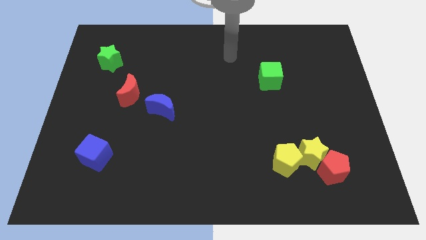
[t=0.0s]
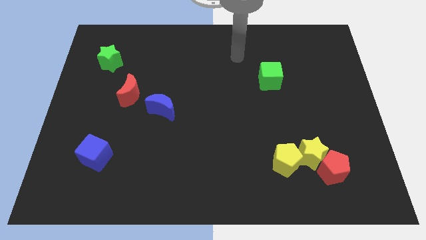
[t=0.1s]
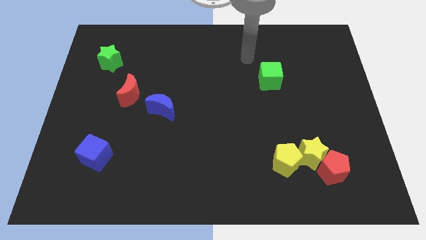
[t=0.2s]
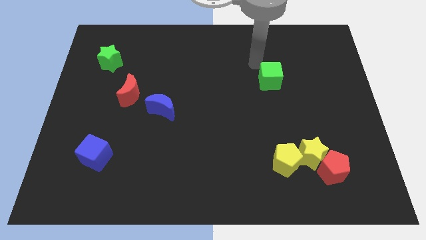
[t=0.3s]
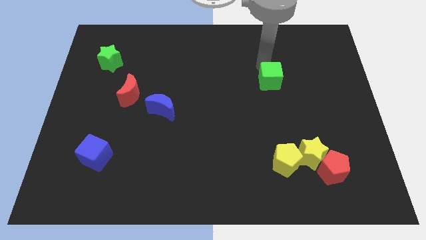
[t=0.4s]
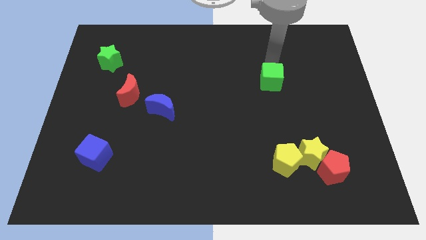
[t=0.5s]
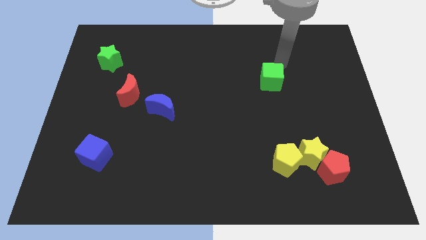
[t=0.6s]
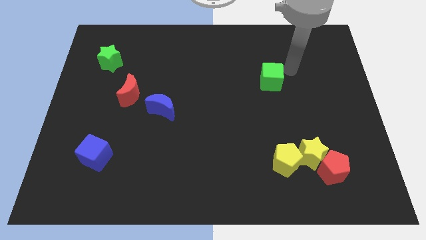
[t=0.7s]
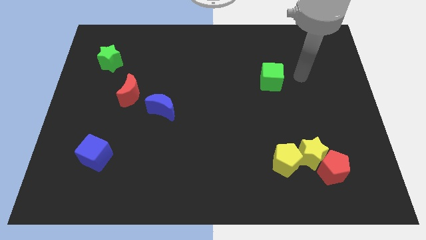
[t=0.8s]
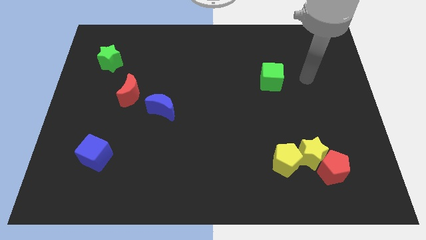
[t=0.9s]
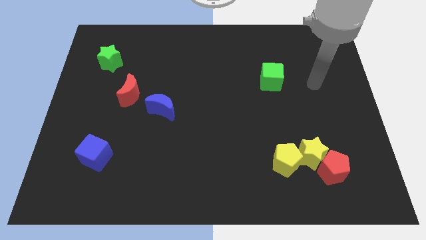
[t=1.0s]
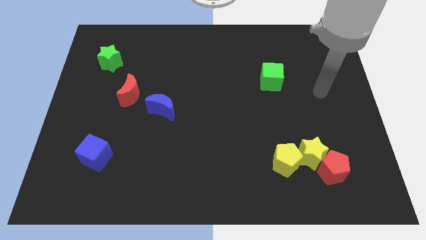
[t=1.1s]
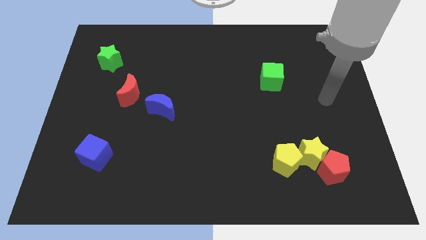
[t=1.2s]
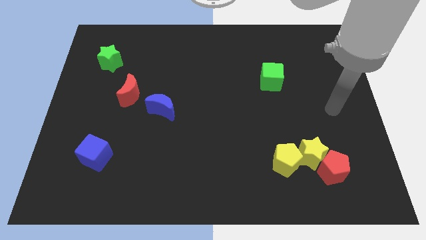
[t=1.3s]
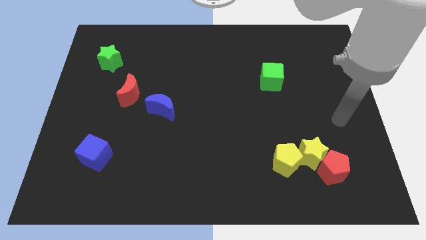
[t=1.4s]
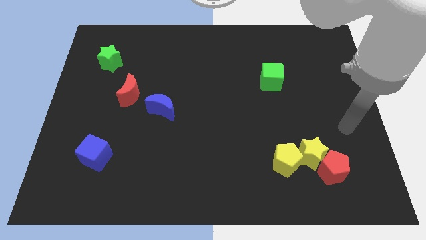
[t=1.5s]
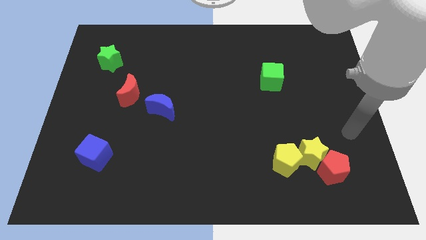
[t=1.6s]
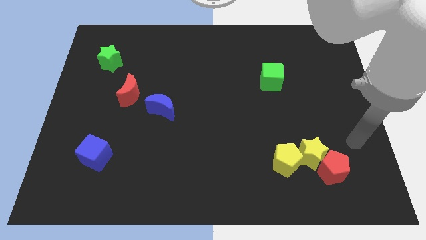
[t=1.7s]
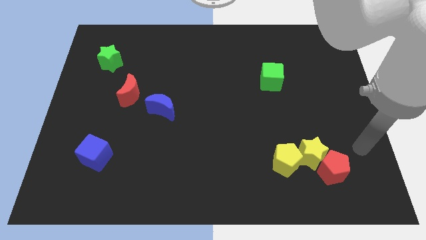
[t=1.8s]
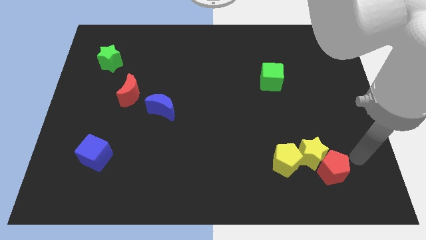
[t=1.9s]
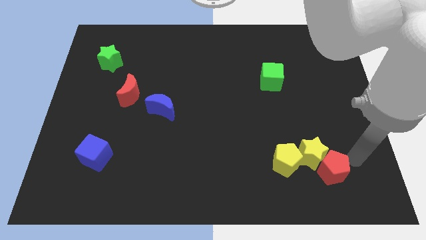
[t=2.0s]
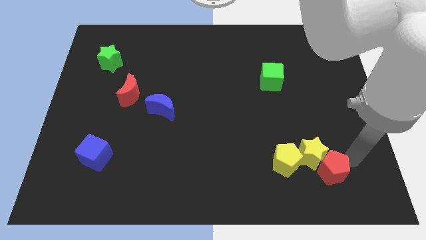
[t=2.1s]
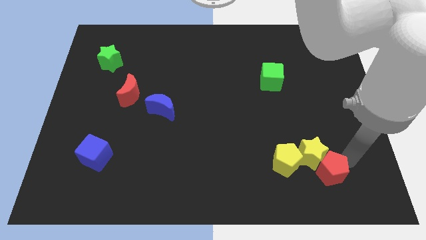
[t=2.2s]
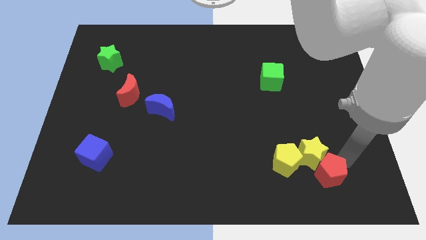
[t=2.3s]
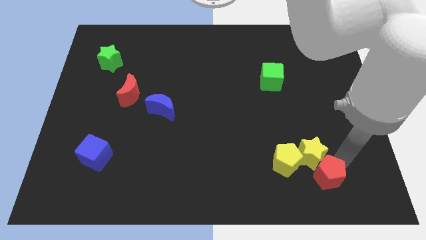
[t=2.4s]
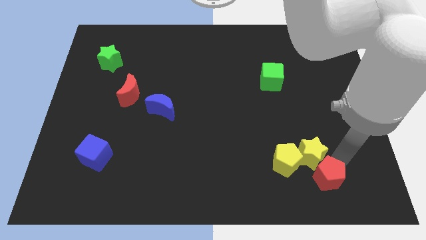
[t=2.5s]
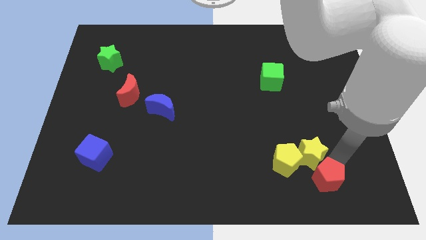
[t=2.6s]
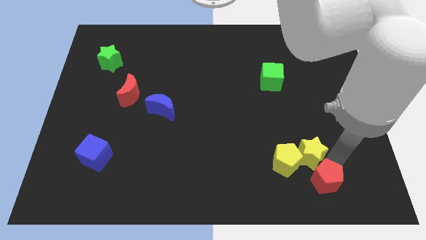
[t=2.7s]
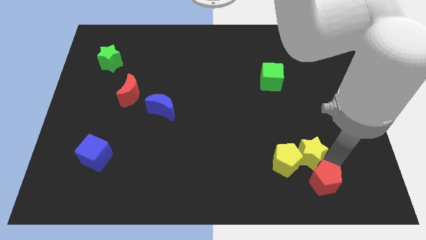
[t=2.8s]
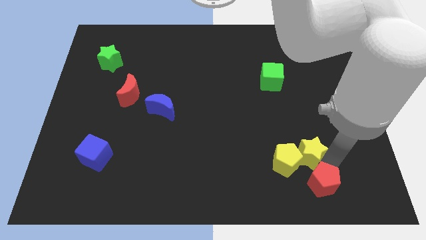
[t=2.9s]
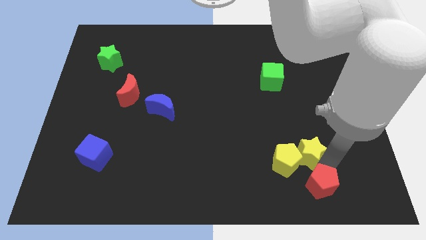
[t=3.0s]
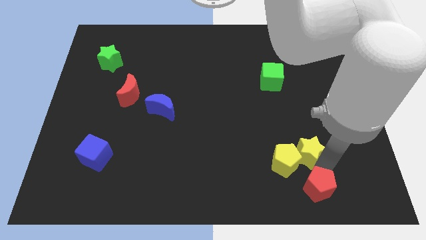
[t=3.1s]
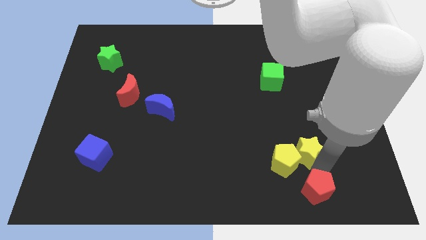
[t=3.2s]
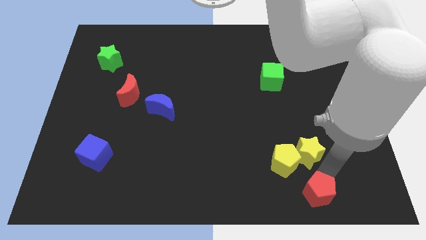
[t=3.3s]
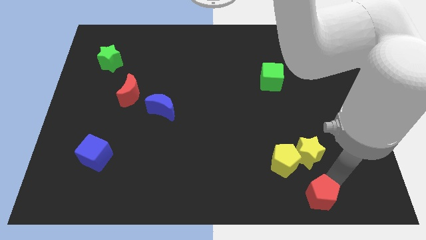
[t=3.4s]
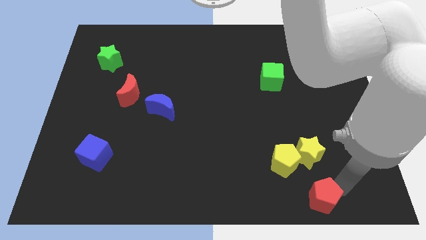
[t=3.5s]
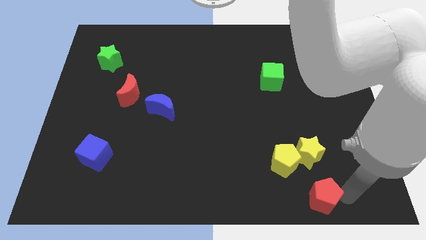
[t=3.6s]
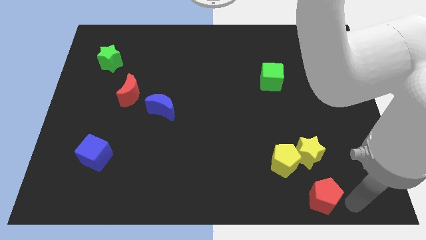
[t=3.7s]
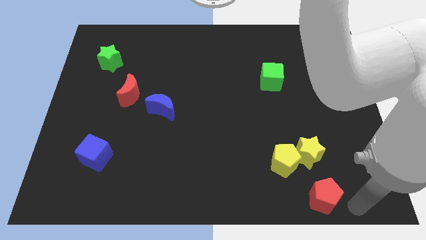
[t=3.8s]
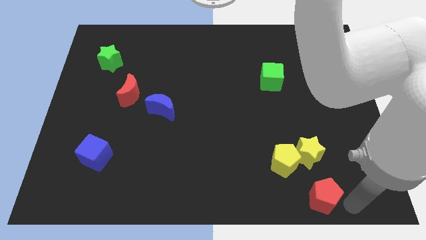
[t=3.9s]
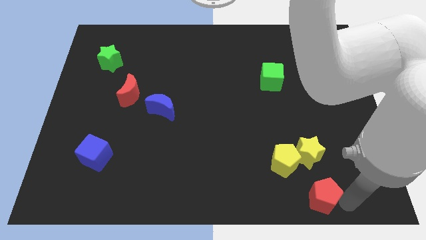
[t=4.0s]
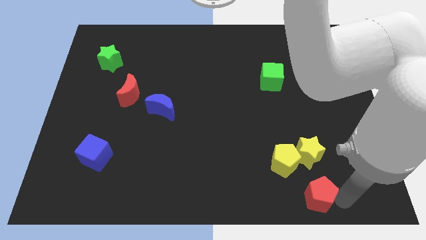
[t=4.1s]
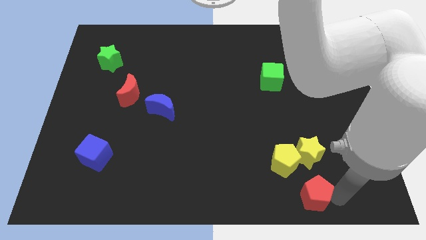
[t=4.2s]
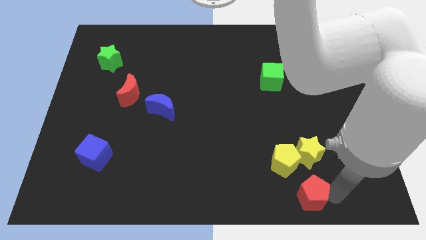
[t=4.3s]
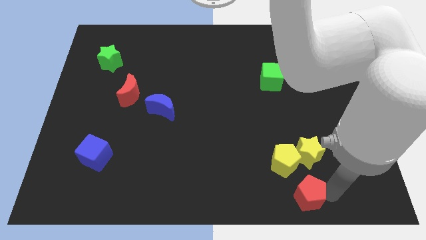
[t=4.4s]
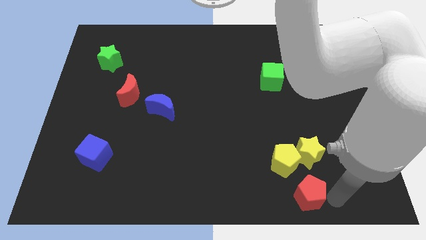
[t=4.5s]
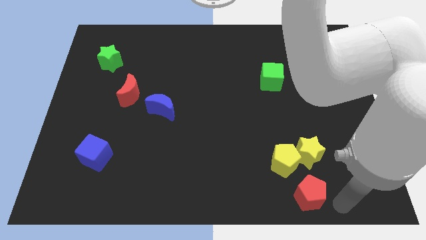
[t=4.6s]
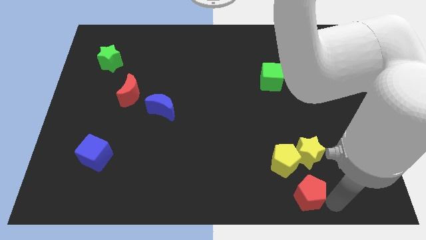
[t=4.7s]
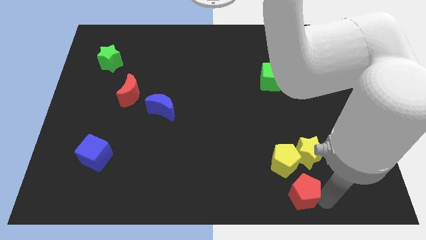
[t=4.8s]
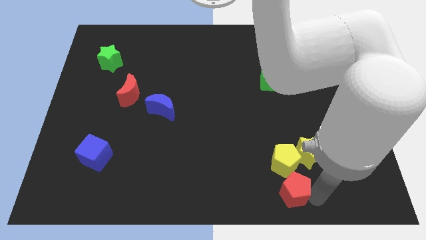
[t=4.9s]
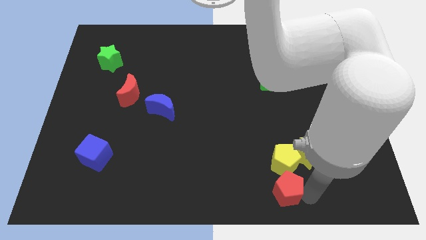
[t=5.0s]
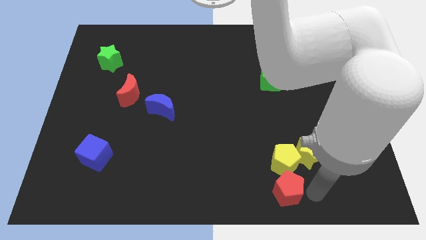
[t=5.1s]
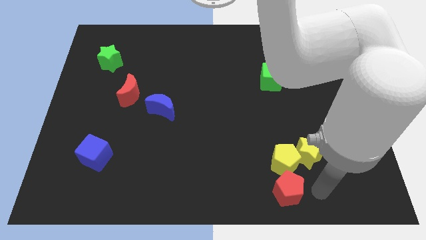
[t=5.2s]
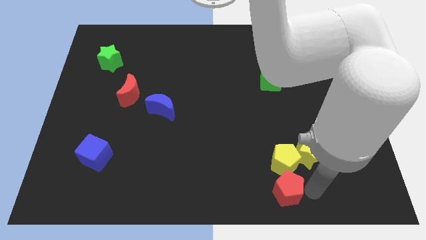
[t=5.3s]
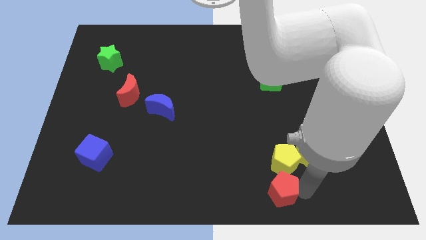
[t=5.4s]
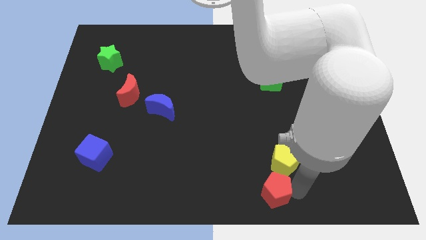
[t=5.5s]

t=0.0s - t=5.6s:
move the red pentagon to the bottom side

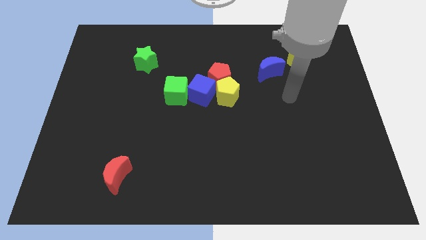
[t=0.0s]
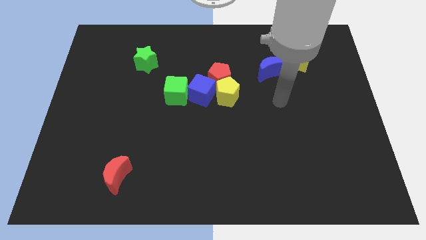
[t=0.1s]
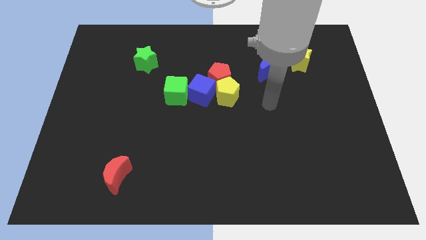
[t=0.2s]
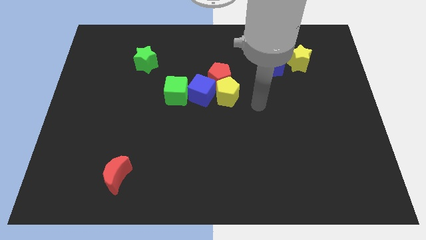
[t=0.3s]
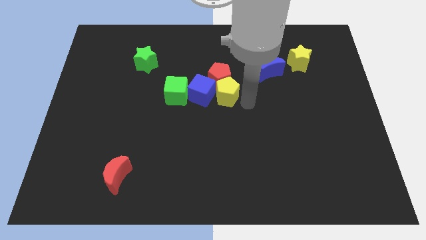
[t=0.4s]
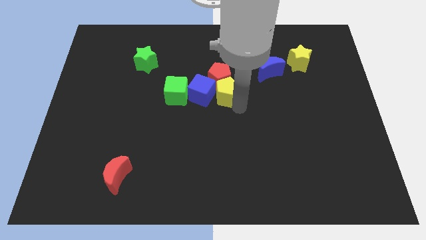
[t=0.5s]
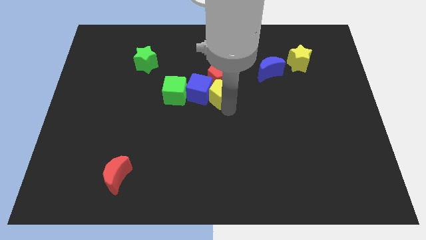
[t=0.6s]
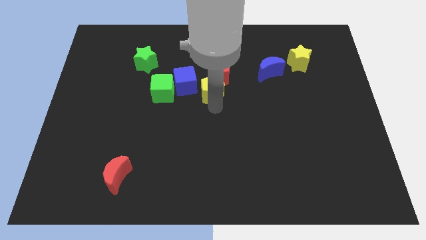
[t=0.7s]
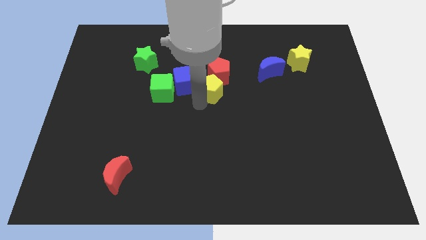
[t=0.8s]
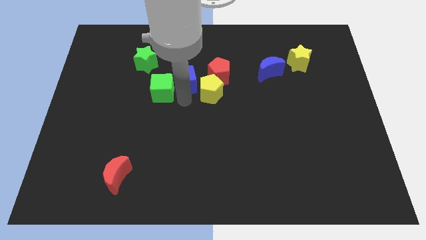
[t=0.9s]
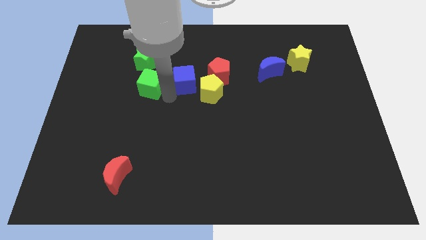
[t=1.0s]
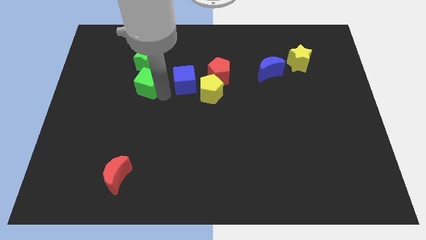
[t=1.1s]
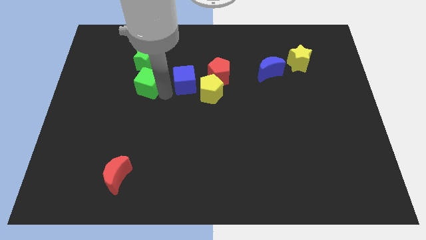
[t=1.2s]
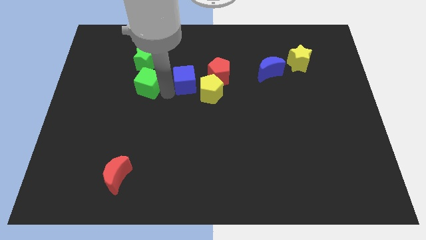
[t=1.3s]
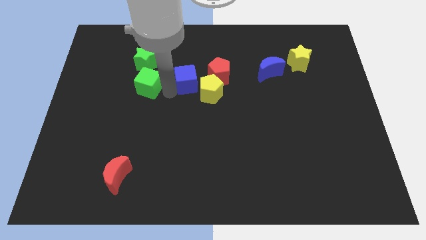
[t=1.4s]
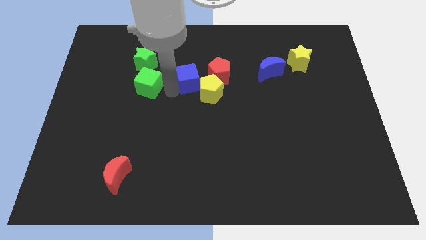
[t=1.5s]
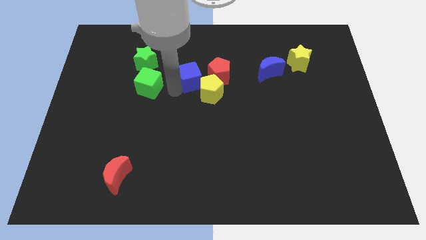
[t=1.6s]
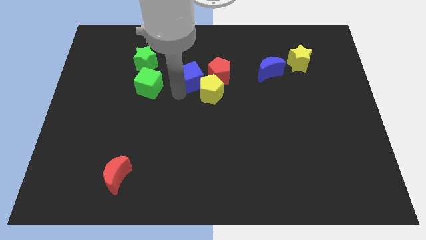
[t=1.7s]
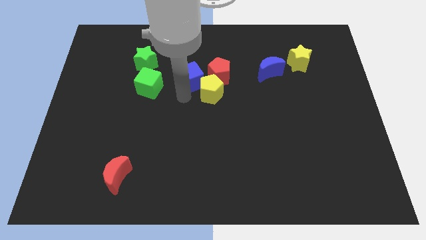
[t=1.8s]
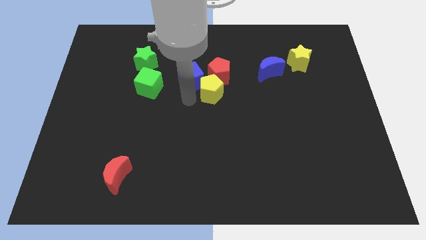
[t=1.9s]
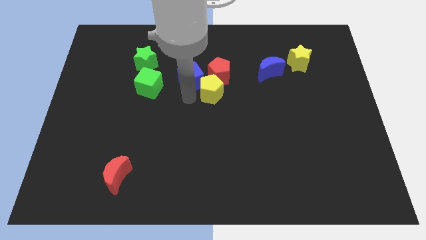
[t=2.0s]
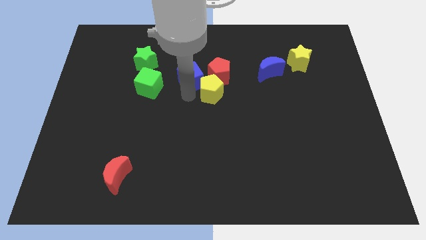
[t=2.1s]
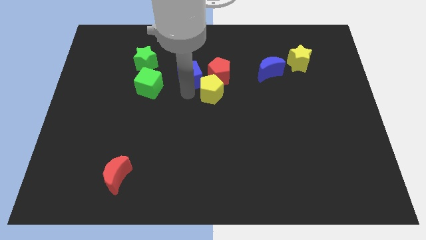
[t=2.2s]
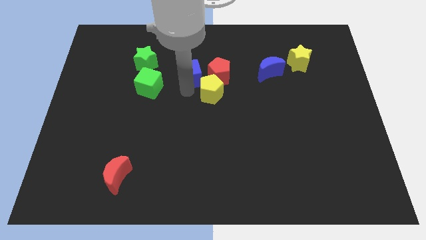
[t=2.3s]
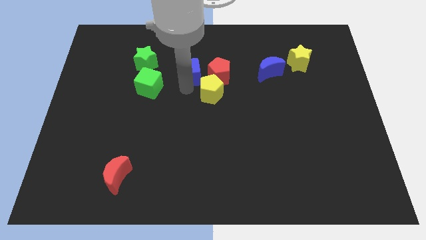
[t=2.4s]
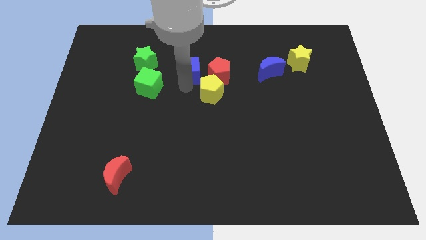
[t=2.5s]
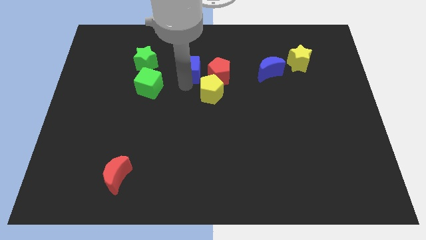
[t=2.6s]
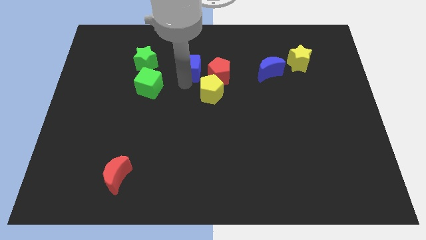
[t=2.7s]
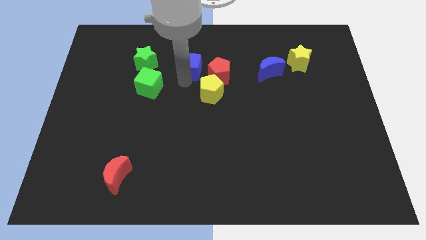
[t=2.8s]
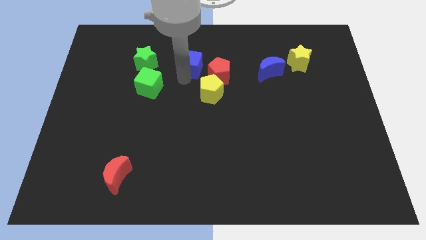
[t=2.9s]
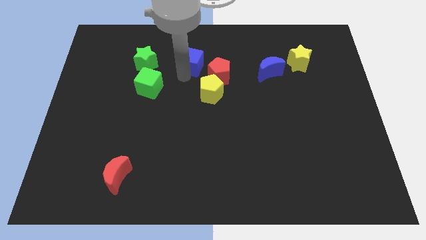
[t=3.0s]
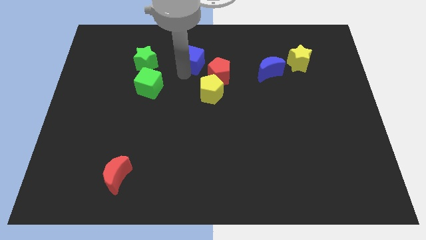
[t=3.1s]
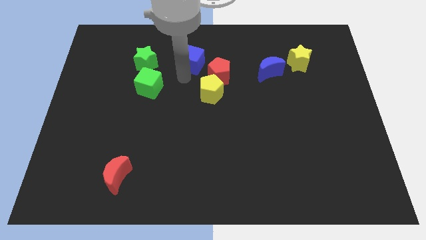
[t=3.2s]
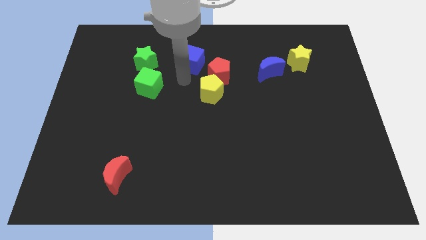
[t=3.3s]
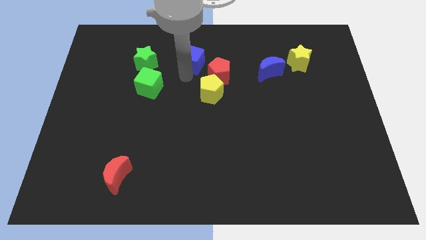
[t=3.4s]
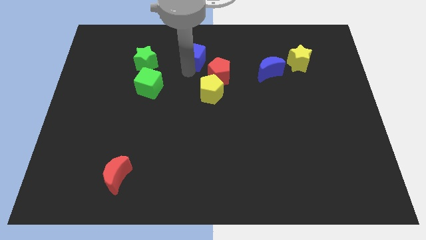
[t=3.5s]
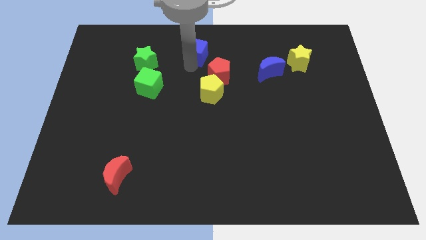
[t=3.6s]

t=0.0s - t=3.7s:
push the blue cube to the top side
